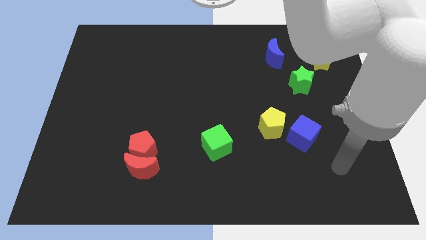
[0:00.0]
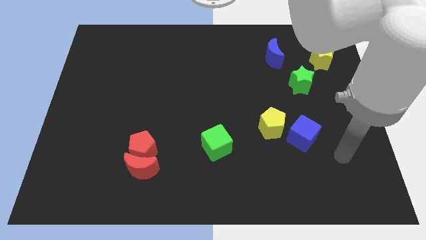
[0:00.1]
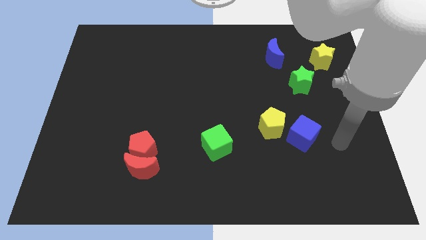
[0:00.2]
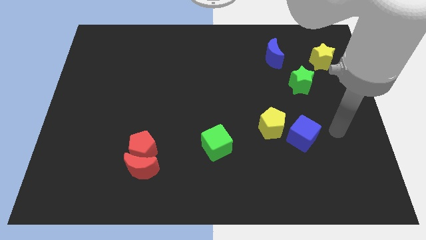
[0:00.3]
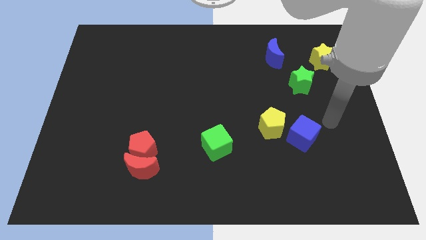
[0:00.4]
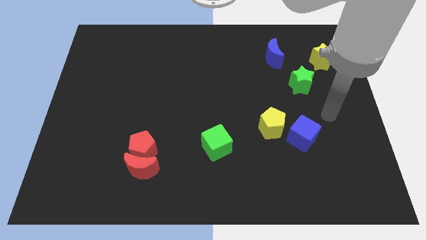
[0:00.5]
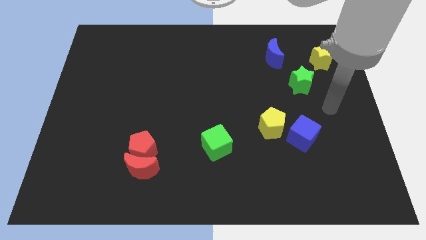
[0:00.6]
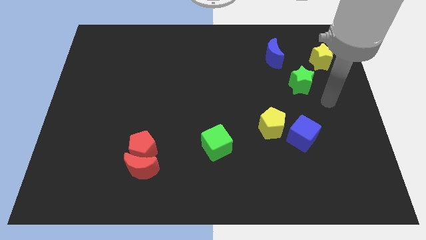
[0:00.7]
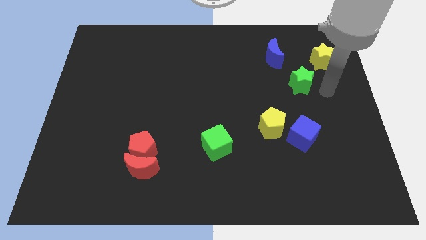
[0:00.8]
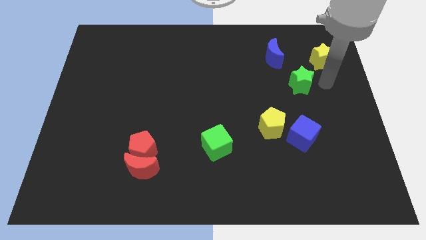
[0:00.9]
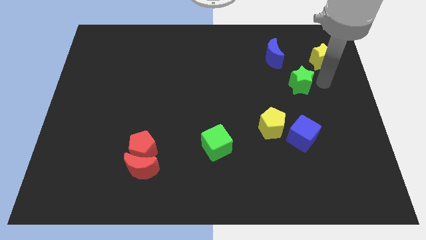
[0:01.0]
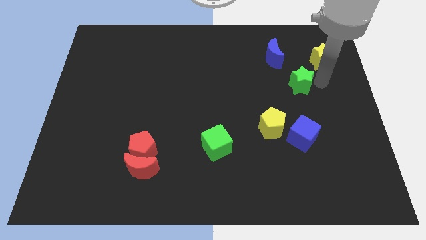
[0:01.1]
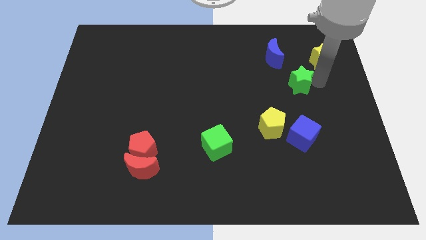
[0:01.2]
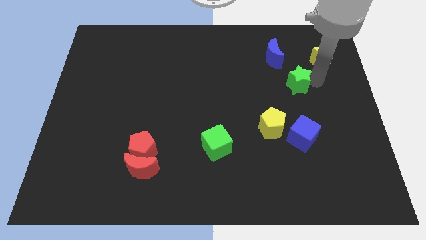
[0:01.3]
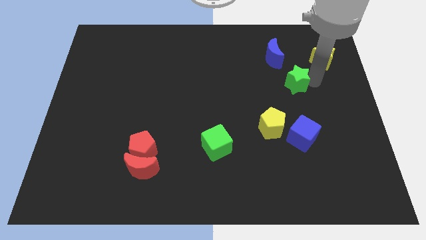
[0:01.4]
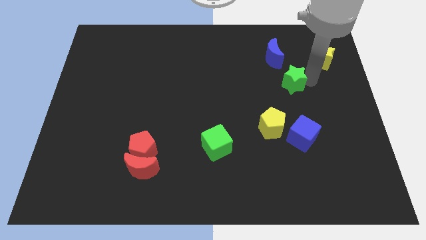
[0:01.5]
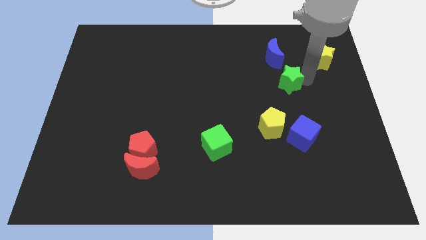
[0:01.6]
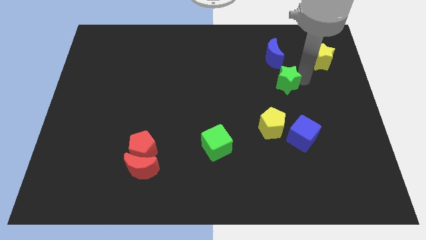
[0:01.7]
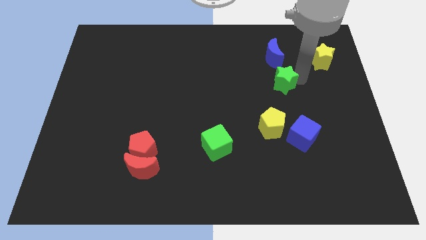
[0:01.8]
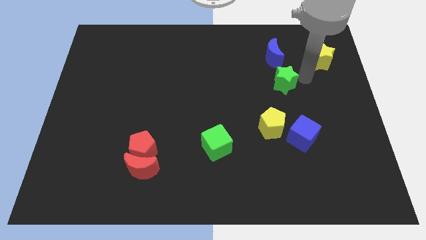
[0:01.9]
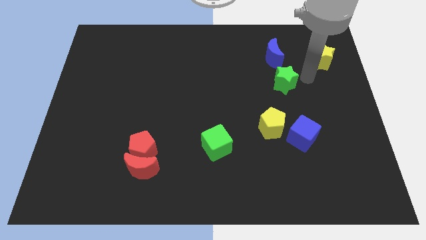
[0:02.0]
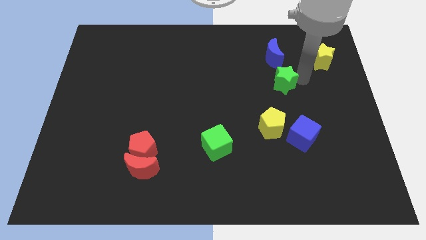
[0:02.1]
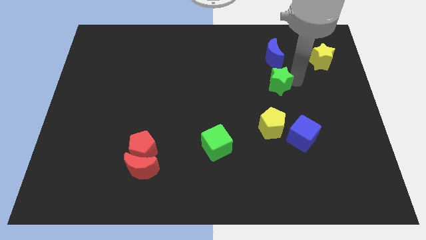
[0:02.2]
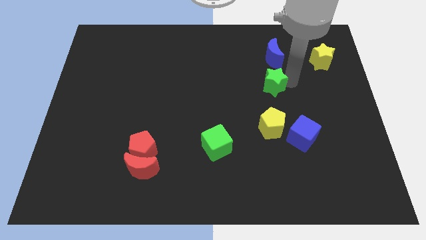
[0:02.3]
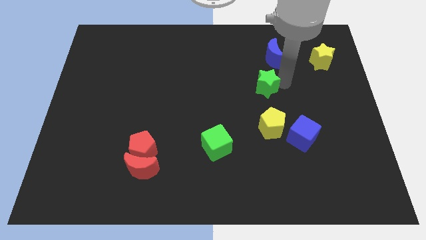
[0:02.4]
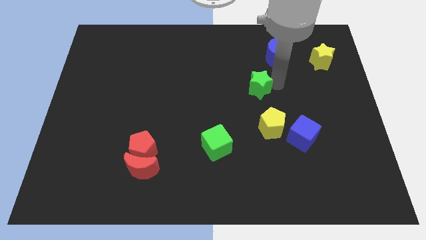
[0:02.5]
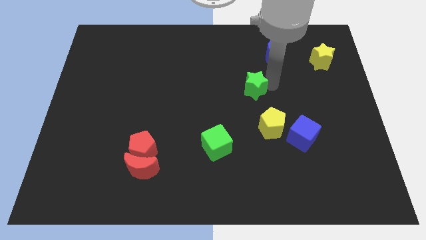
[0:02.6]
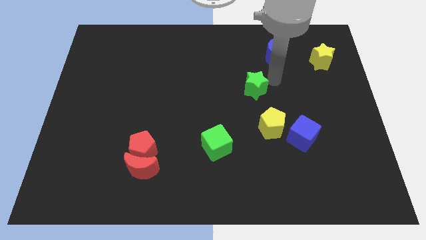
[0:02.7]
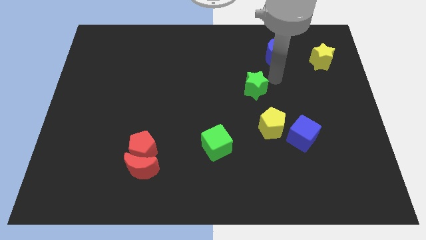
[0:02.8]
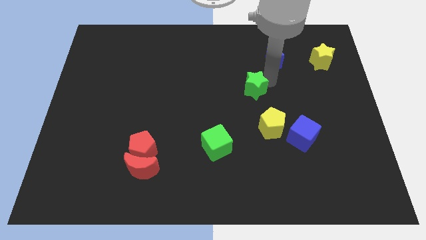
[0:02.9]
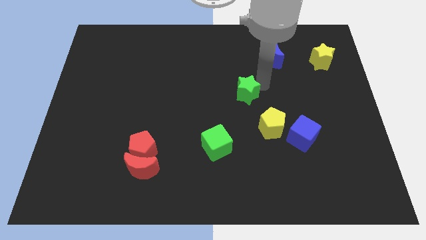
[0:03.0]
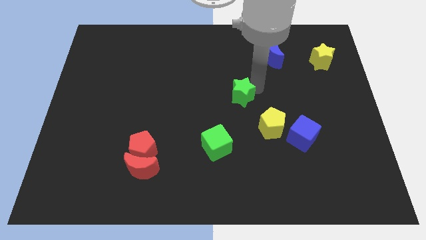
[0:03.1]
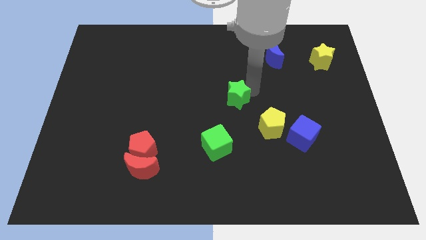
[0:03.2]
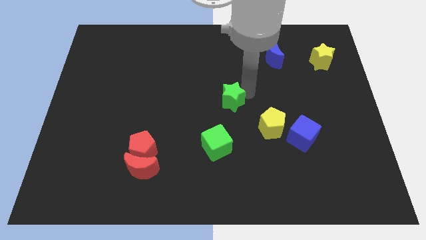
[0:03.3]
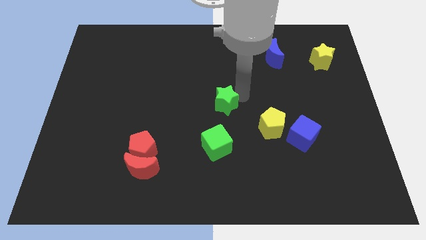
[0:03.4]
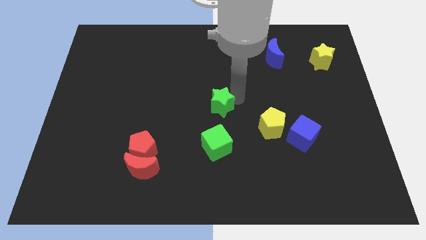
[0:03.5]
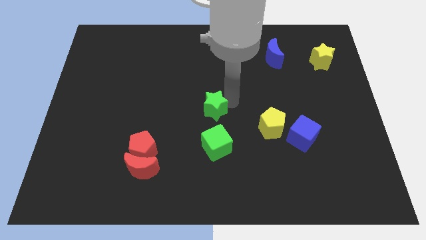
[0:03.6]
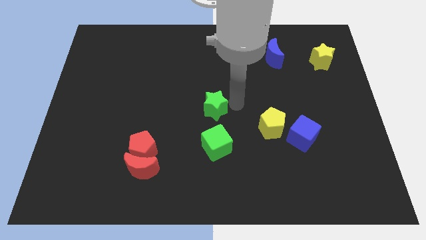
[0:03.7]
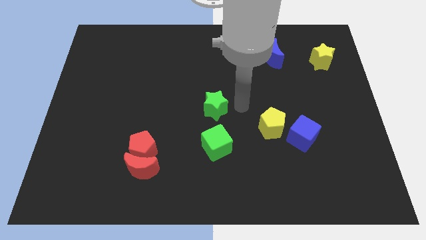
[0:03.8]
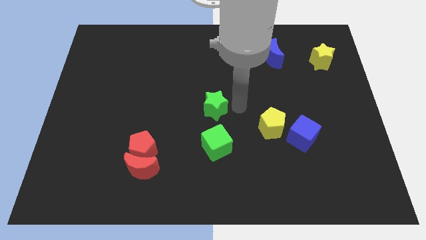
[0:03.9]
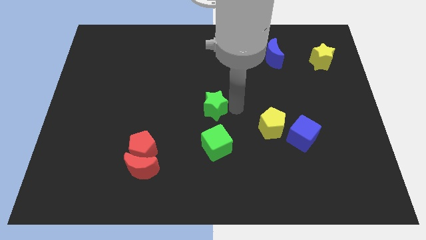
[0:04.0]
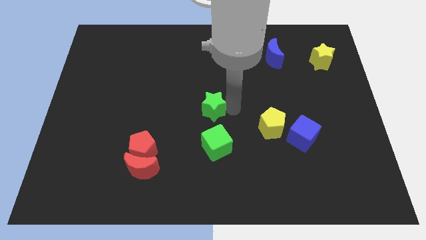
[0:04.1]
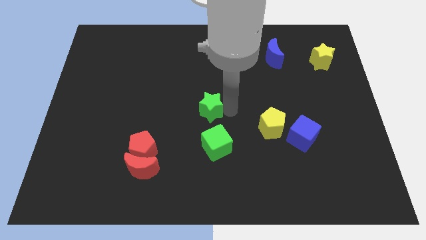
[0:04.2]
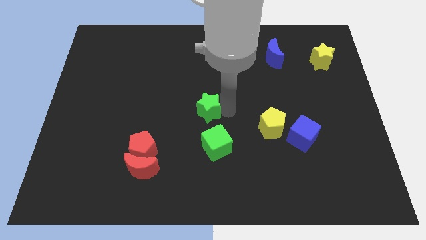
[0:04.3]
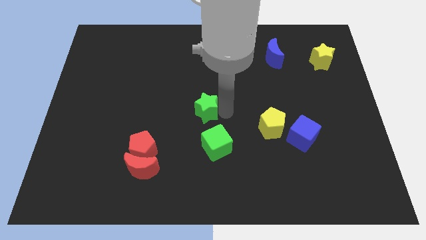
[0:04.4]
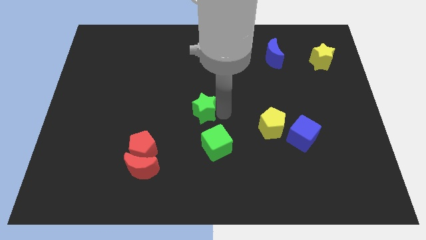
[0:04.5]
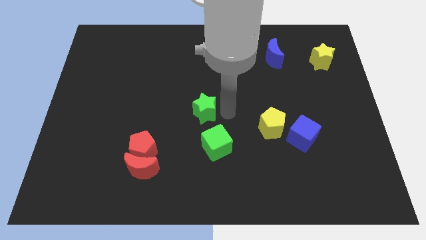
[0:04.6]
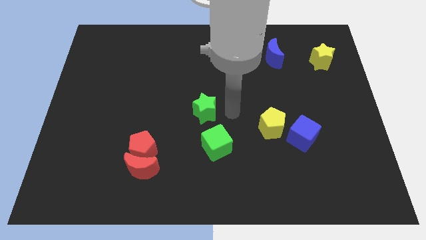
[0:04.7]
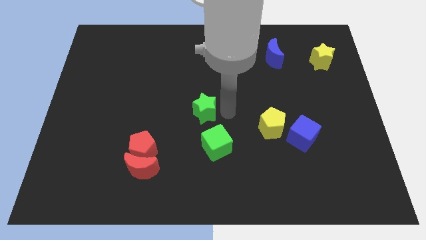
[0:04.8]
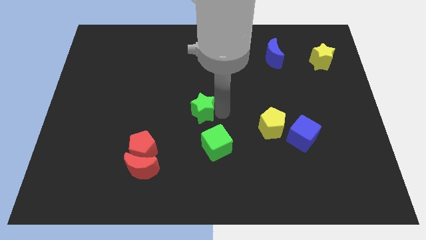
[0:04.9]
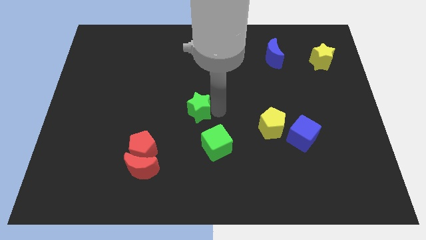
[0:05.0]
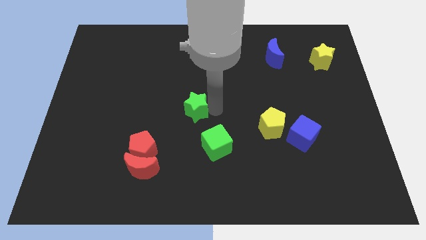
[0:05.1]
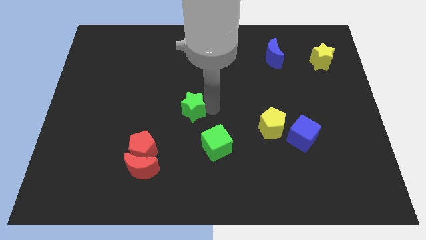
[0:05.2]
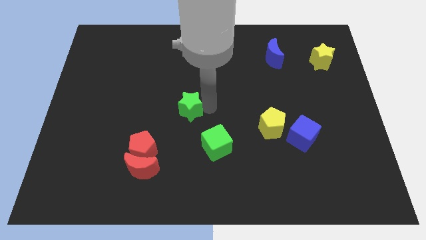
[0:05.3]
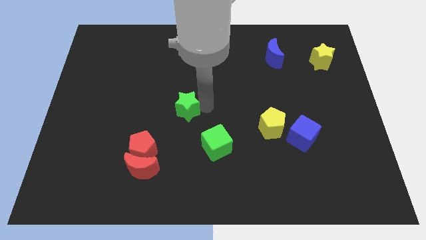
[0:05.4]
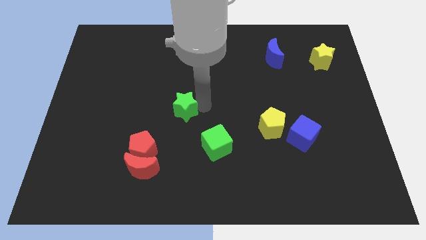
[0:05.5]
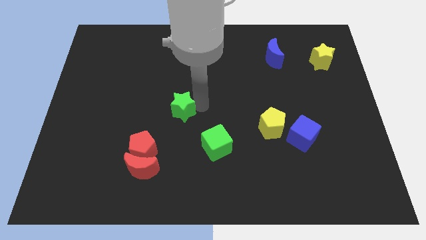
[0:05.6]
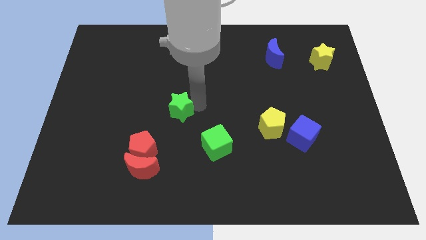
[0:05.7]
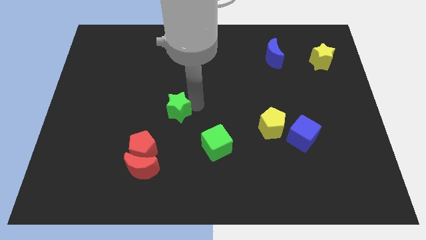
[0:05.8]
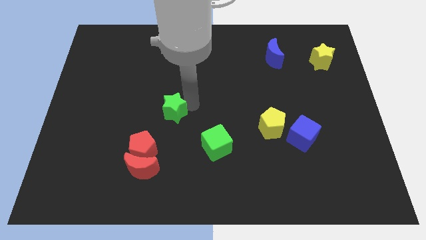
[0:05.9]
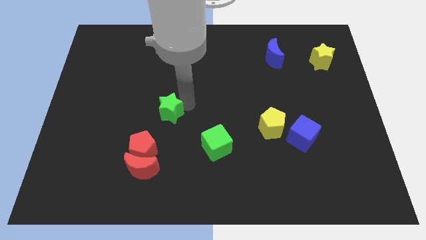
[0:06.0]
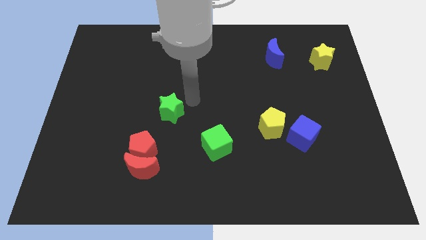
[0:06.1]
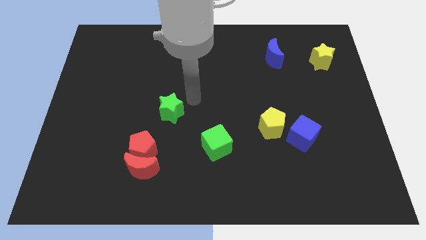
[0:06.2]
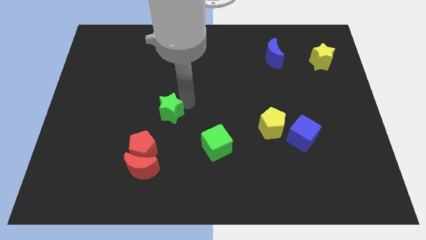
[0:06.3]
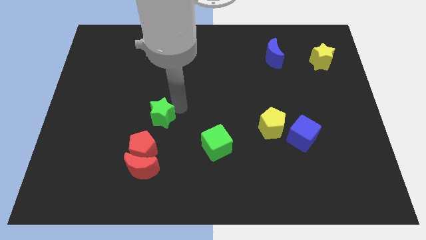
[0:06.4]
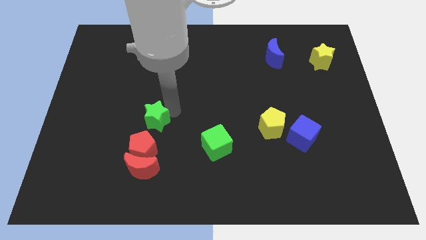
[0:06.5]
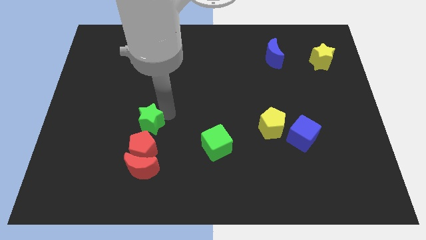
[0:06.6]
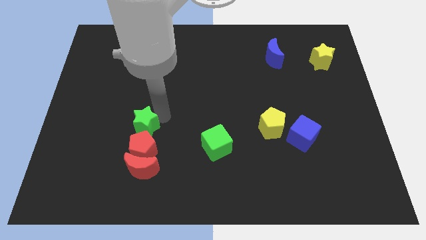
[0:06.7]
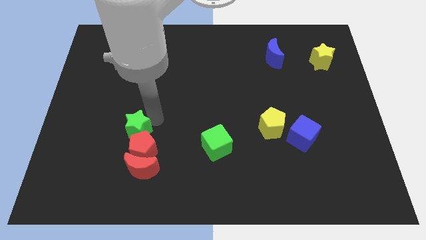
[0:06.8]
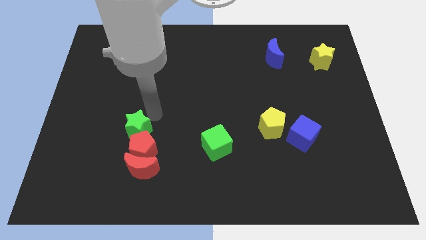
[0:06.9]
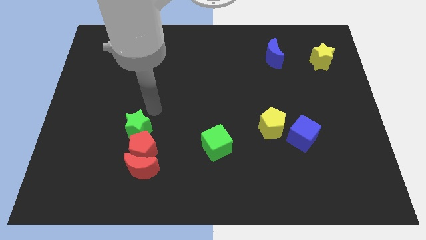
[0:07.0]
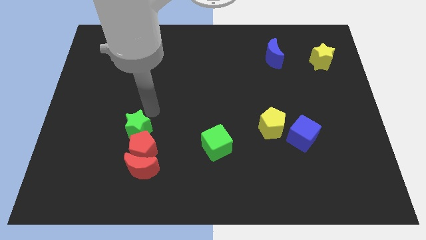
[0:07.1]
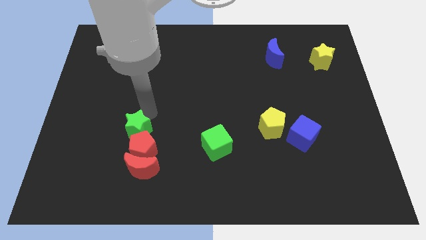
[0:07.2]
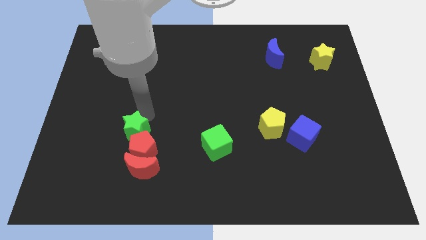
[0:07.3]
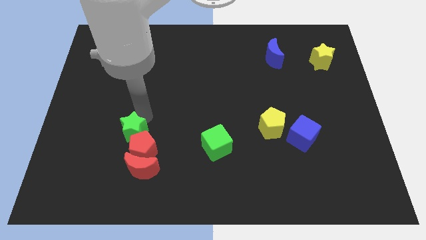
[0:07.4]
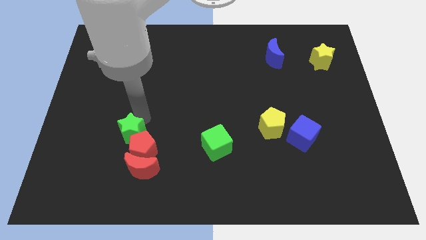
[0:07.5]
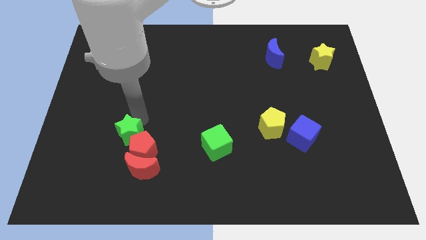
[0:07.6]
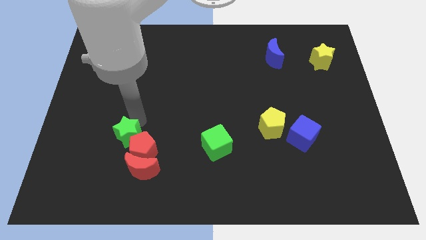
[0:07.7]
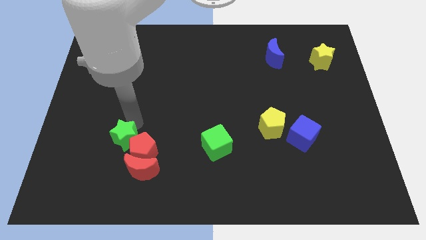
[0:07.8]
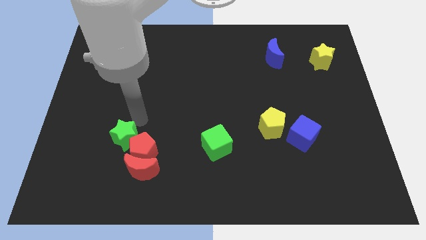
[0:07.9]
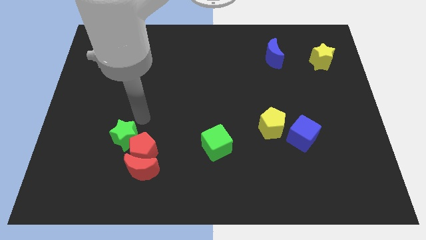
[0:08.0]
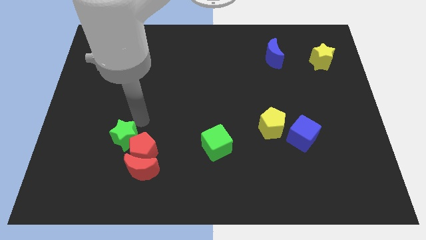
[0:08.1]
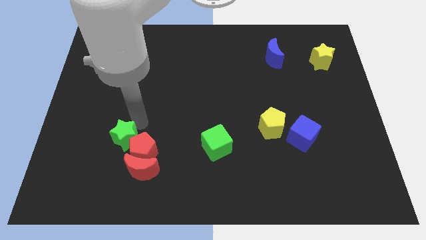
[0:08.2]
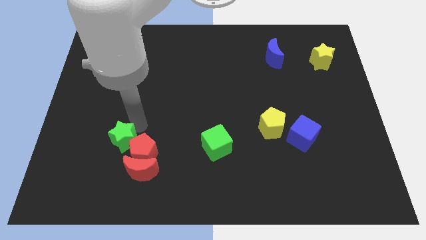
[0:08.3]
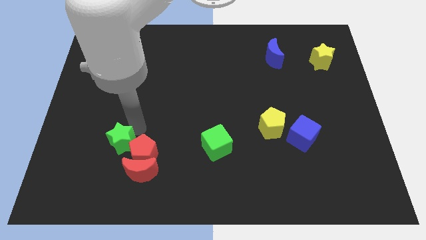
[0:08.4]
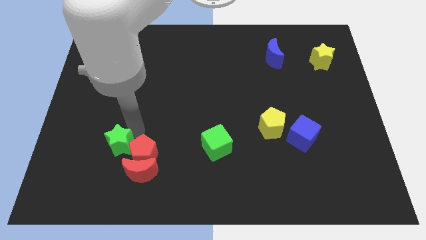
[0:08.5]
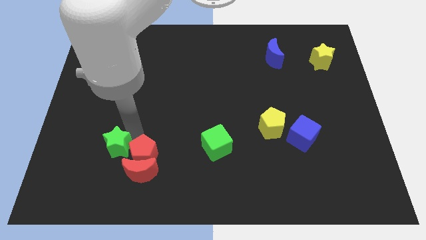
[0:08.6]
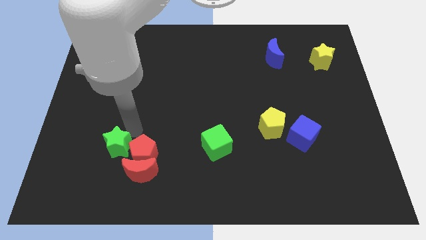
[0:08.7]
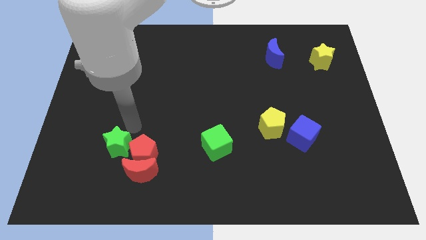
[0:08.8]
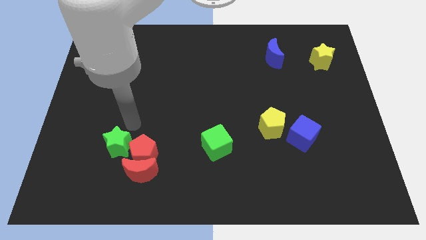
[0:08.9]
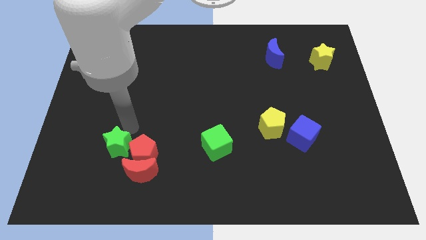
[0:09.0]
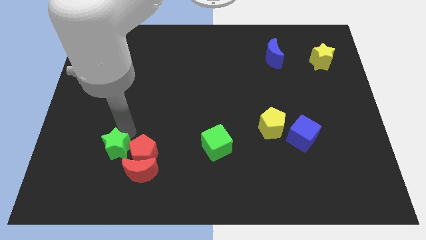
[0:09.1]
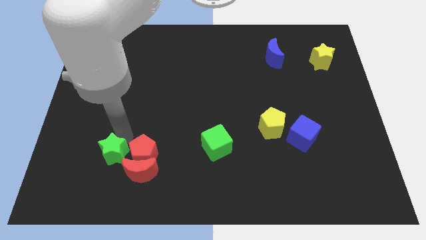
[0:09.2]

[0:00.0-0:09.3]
put the green star left of the red moon
